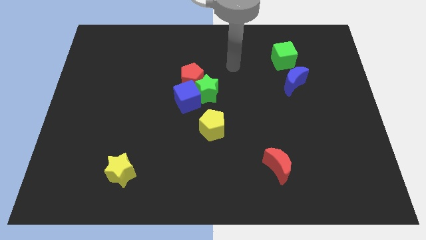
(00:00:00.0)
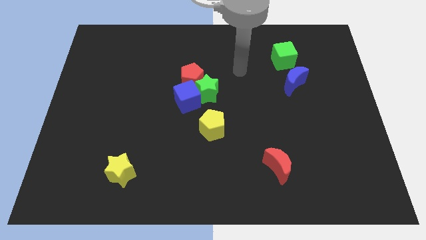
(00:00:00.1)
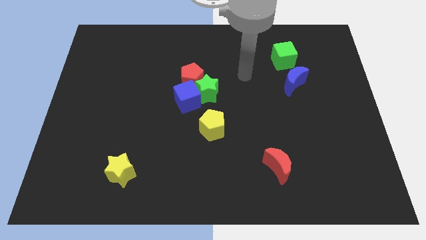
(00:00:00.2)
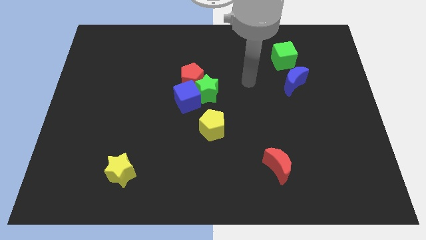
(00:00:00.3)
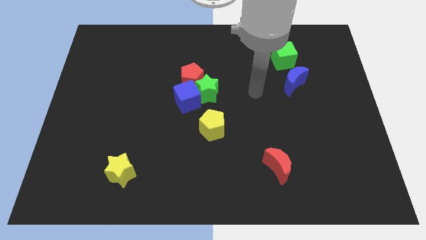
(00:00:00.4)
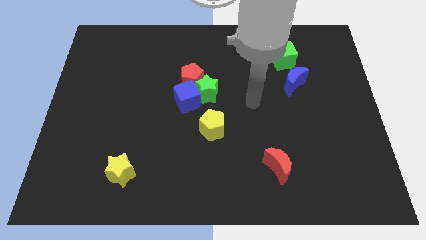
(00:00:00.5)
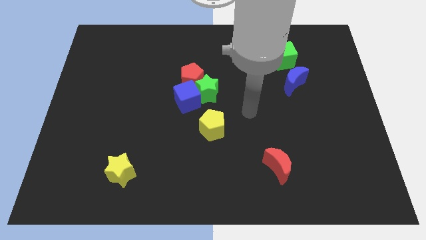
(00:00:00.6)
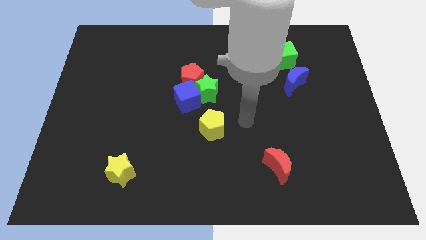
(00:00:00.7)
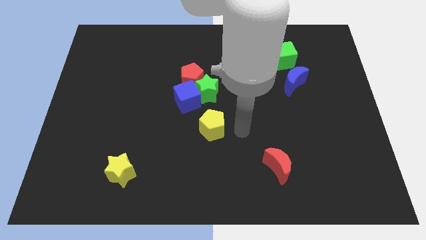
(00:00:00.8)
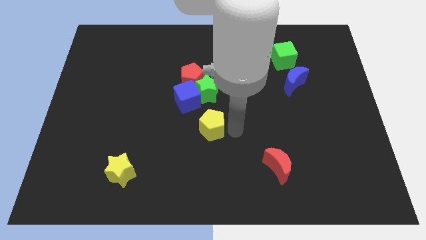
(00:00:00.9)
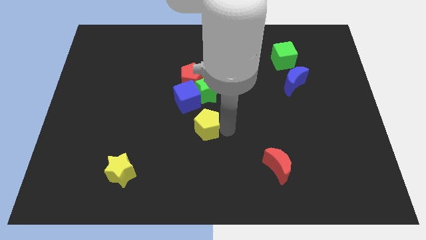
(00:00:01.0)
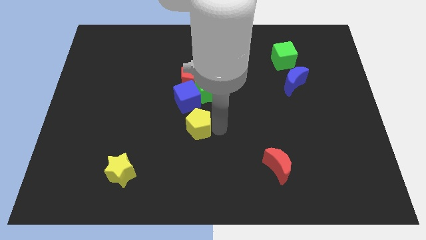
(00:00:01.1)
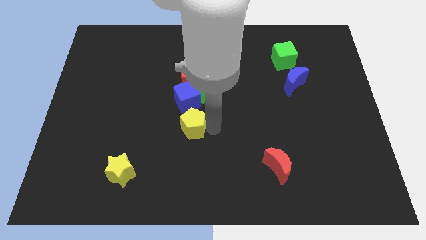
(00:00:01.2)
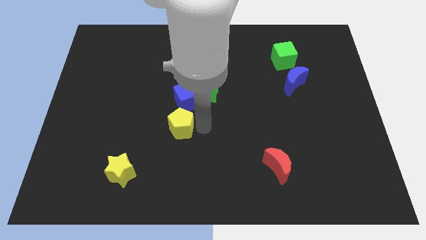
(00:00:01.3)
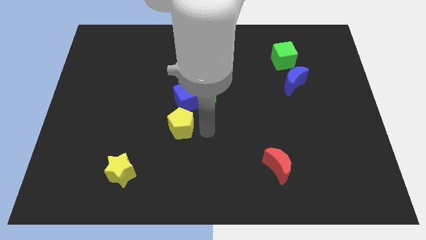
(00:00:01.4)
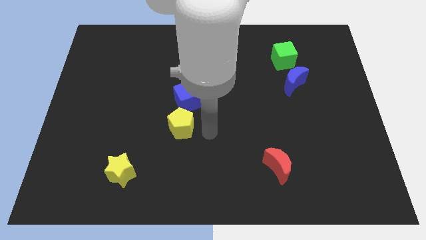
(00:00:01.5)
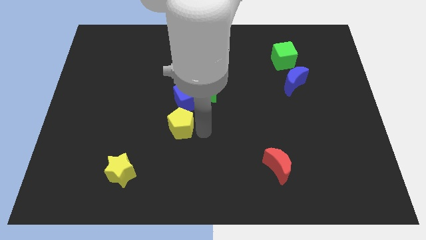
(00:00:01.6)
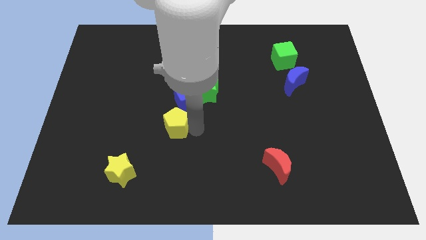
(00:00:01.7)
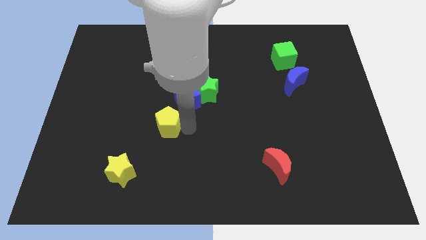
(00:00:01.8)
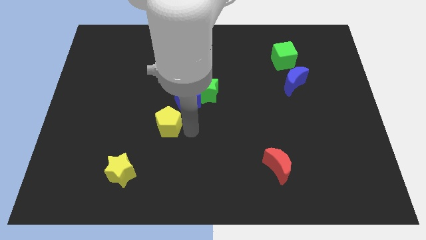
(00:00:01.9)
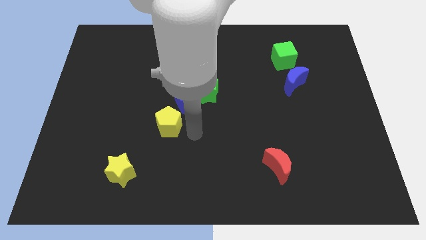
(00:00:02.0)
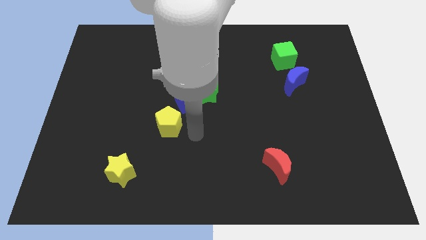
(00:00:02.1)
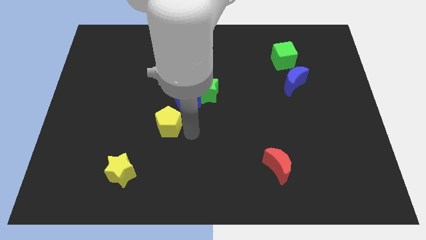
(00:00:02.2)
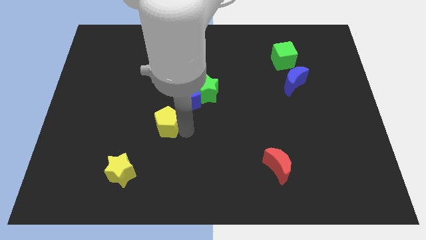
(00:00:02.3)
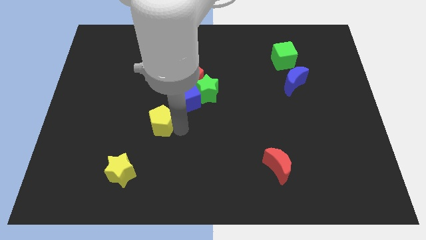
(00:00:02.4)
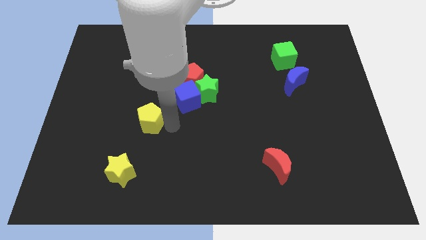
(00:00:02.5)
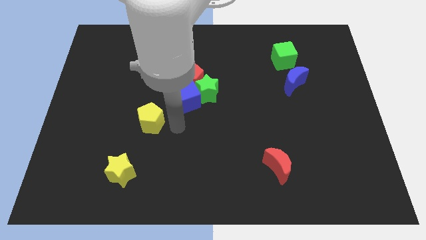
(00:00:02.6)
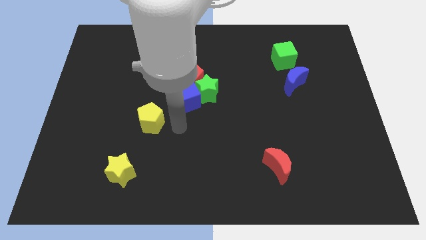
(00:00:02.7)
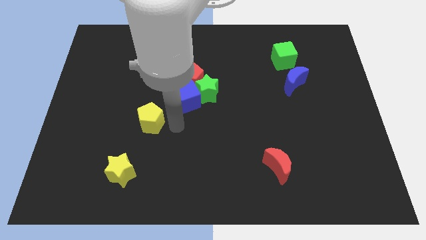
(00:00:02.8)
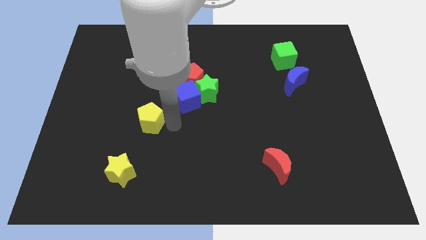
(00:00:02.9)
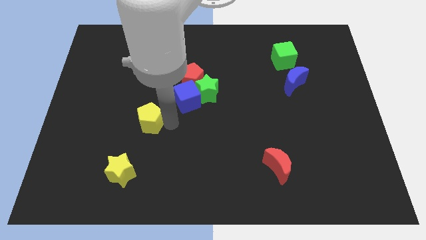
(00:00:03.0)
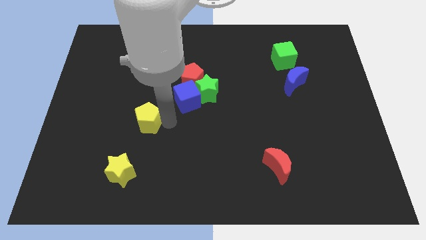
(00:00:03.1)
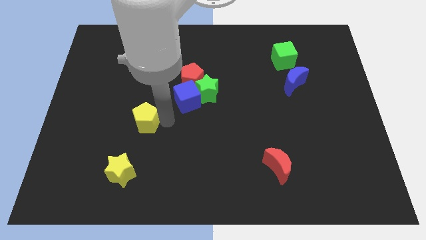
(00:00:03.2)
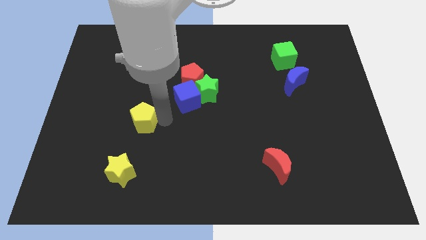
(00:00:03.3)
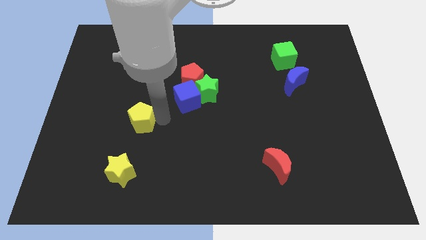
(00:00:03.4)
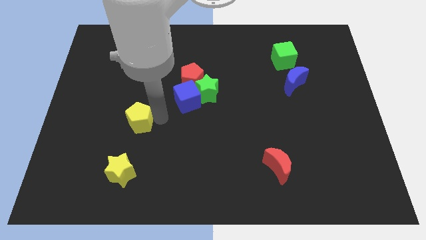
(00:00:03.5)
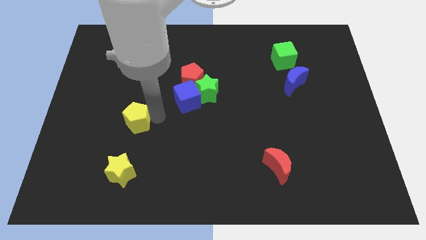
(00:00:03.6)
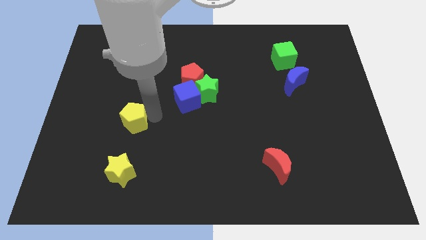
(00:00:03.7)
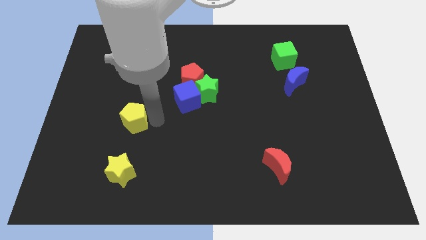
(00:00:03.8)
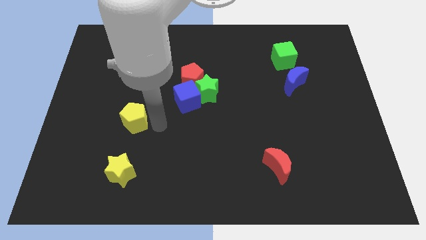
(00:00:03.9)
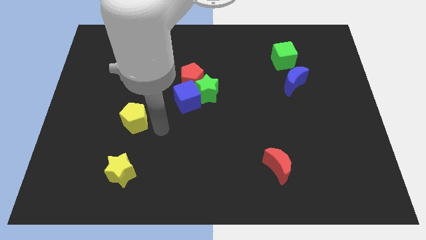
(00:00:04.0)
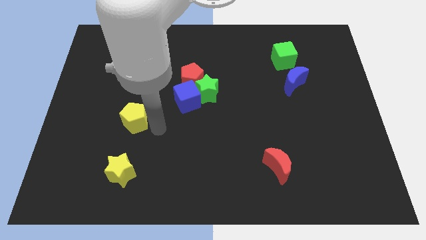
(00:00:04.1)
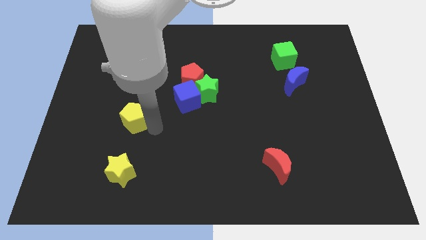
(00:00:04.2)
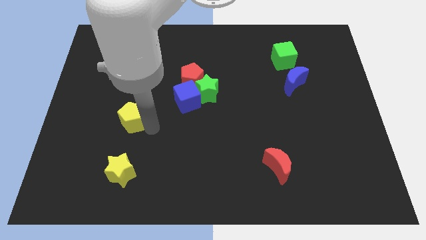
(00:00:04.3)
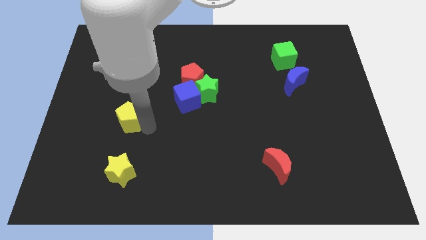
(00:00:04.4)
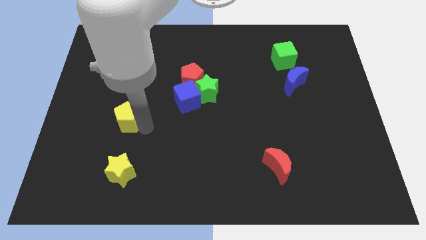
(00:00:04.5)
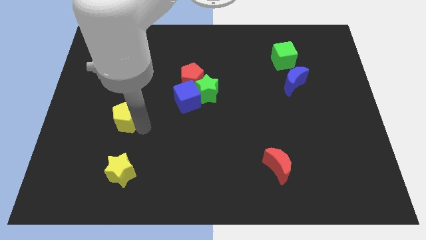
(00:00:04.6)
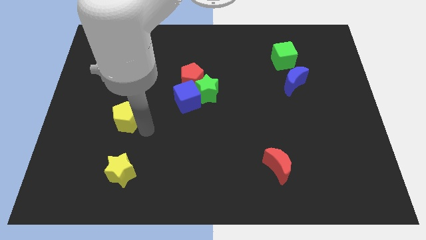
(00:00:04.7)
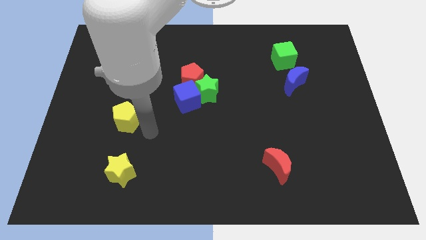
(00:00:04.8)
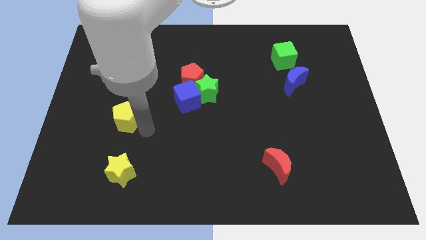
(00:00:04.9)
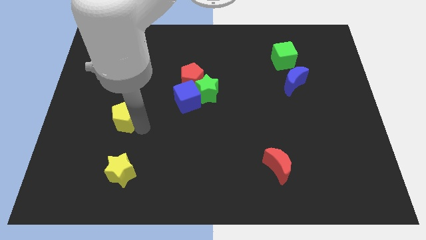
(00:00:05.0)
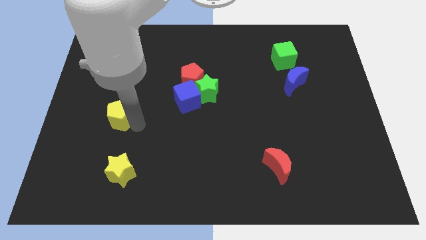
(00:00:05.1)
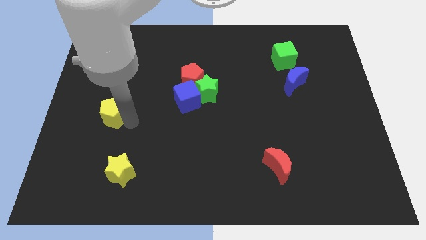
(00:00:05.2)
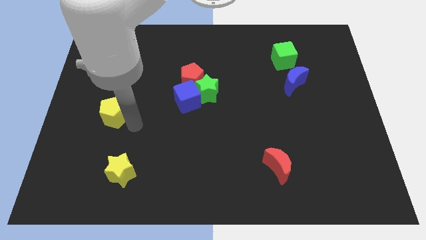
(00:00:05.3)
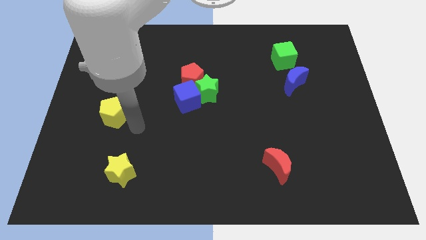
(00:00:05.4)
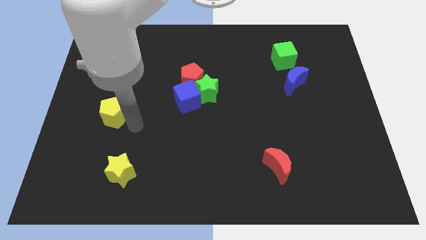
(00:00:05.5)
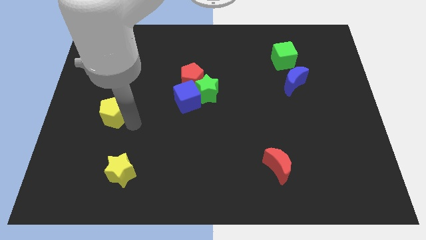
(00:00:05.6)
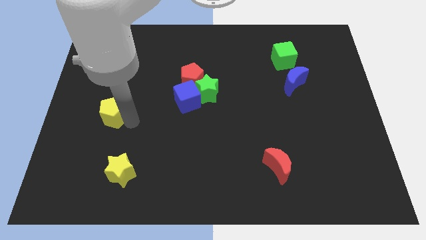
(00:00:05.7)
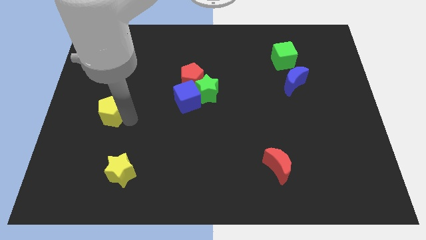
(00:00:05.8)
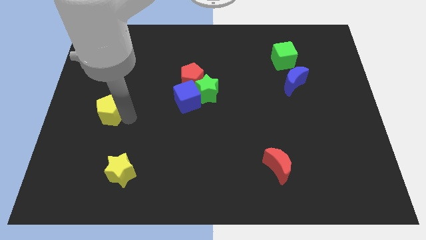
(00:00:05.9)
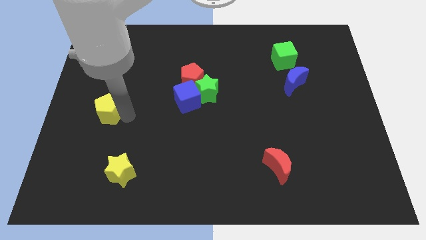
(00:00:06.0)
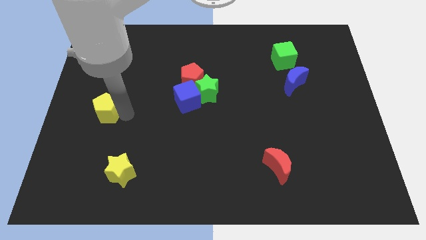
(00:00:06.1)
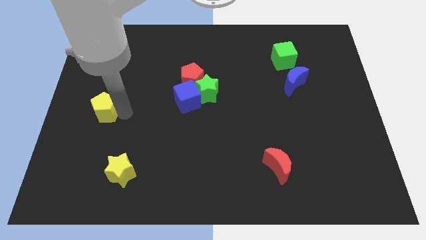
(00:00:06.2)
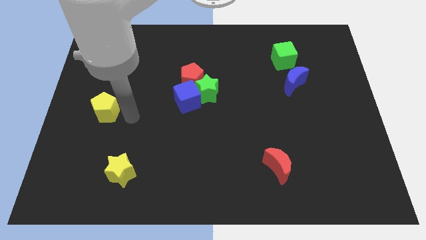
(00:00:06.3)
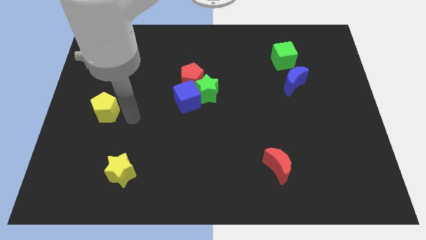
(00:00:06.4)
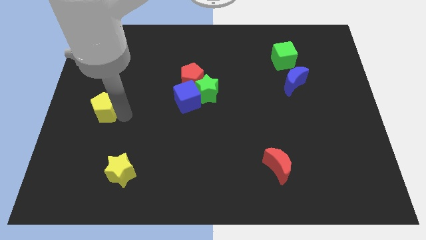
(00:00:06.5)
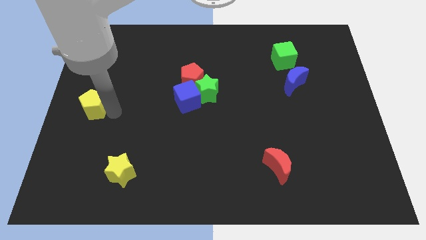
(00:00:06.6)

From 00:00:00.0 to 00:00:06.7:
put the yellow pentagon to the left side
